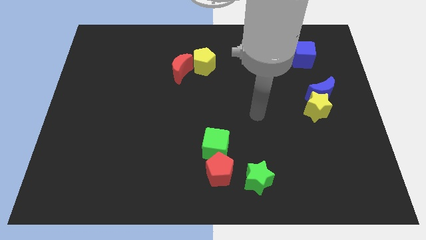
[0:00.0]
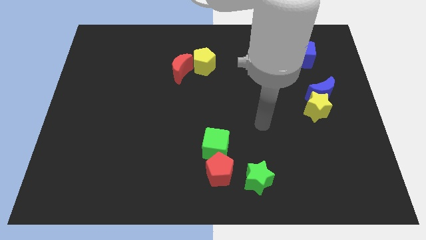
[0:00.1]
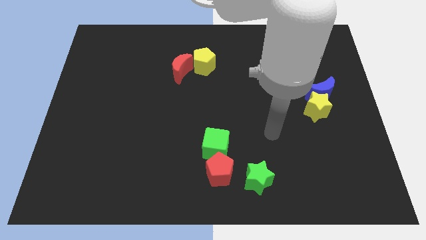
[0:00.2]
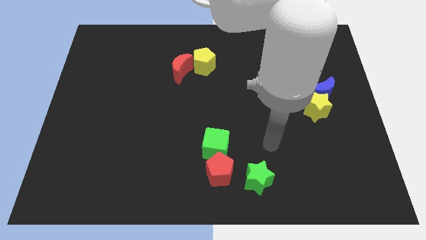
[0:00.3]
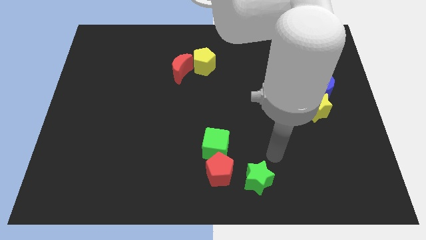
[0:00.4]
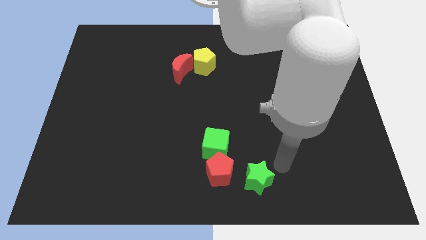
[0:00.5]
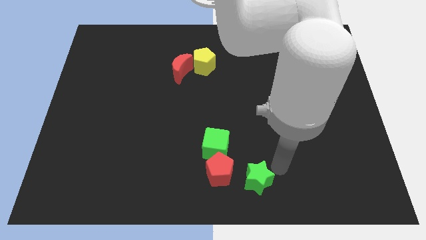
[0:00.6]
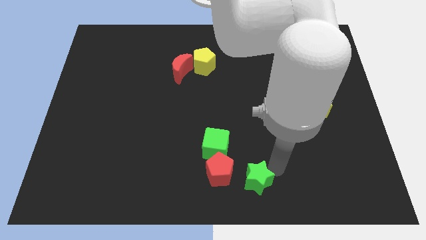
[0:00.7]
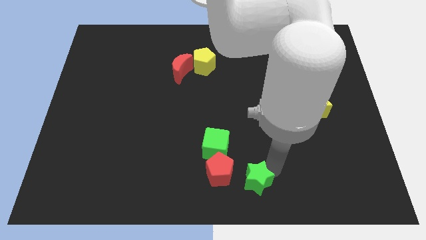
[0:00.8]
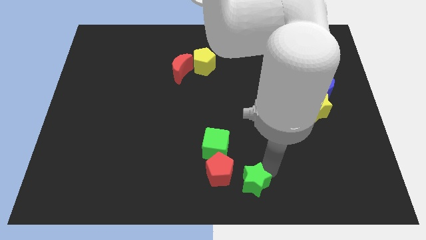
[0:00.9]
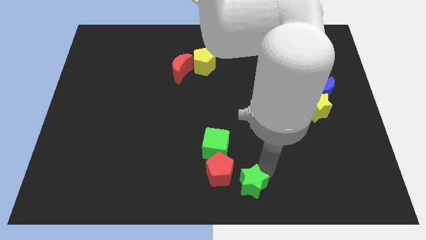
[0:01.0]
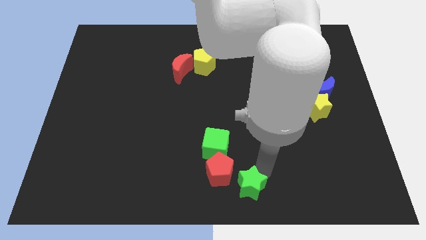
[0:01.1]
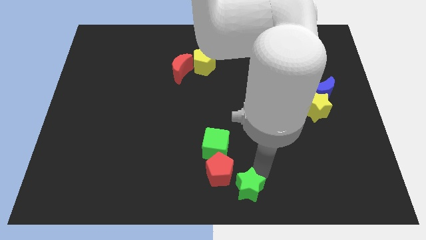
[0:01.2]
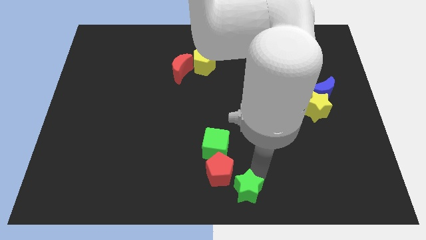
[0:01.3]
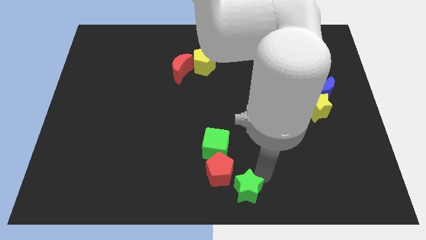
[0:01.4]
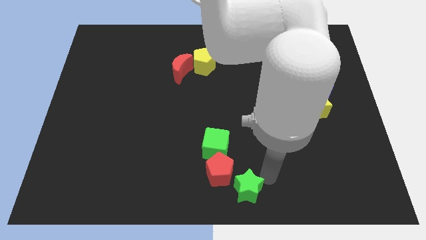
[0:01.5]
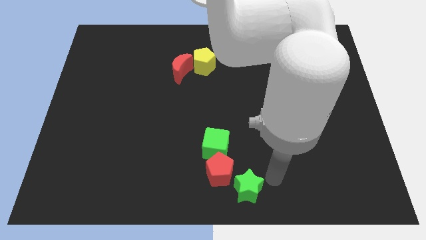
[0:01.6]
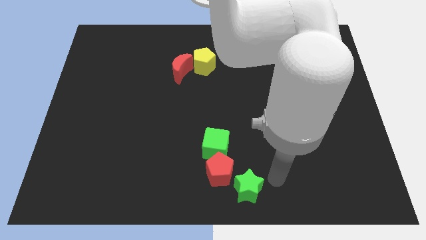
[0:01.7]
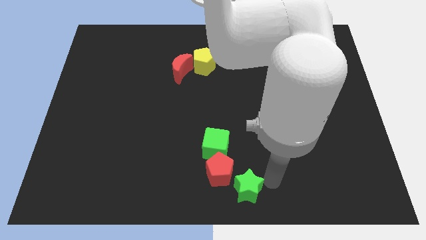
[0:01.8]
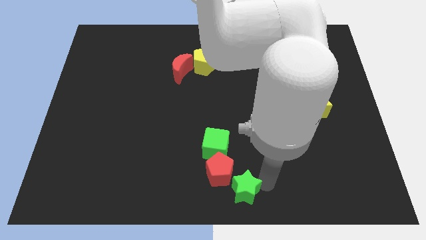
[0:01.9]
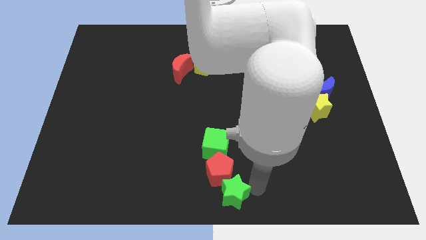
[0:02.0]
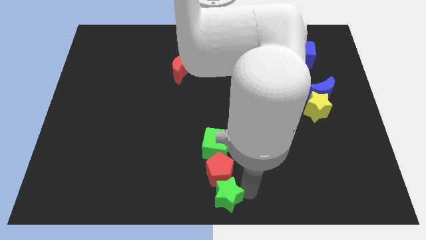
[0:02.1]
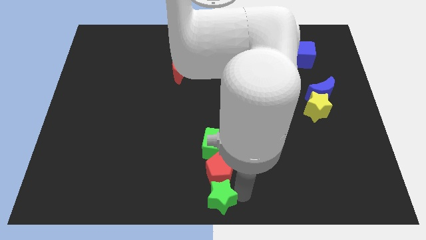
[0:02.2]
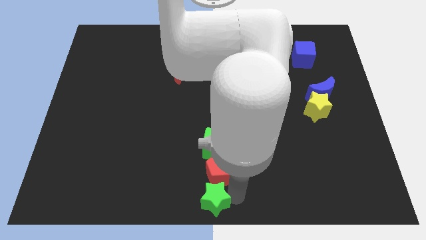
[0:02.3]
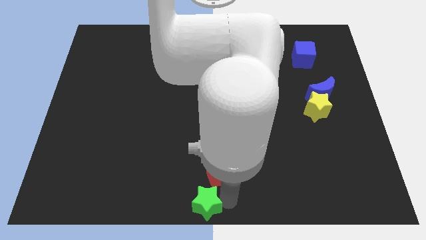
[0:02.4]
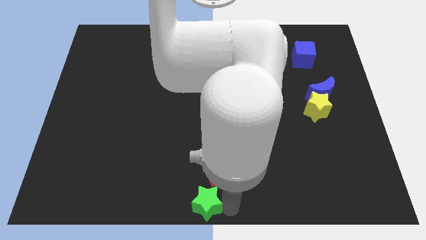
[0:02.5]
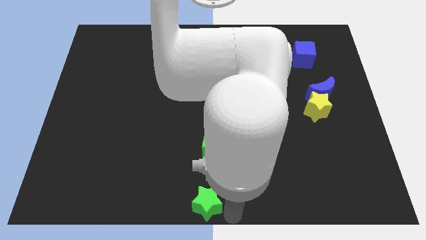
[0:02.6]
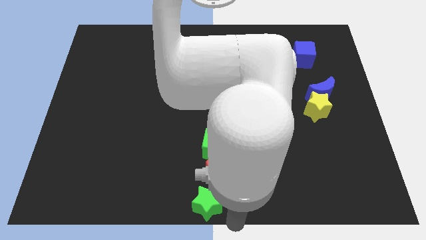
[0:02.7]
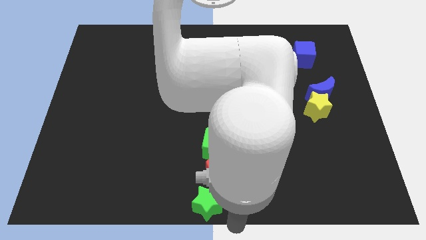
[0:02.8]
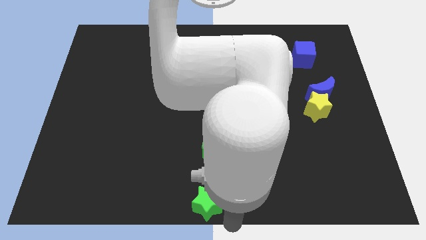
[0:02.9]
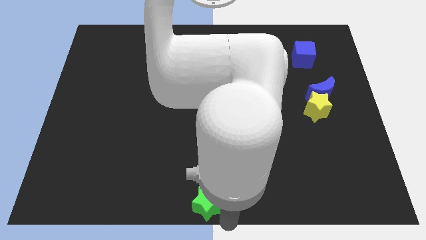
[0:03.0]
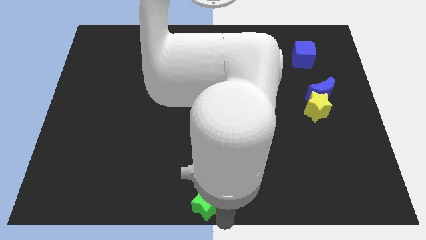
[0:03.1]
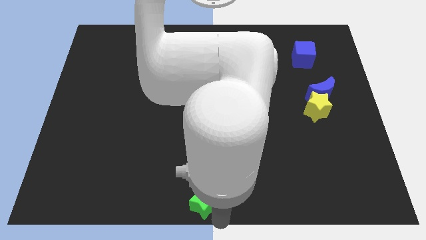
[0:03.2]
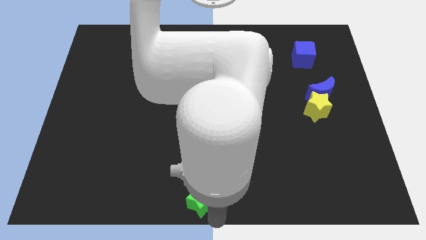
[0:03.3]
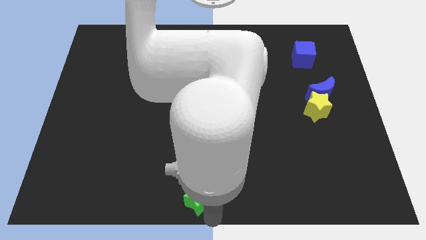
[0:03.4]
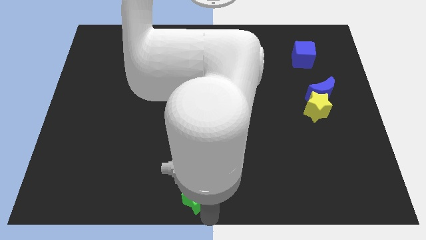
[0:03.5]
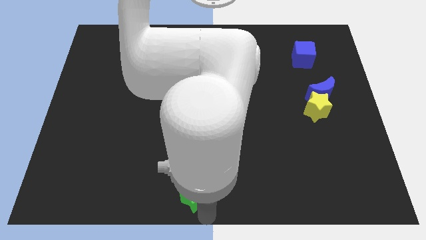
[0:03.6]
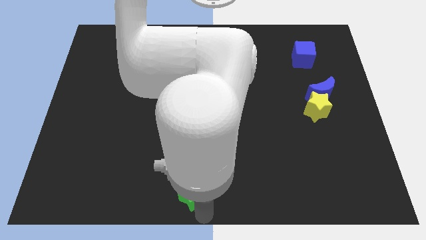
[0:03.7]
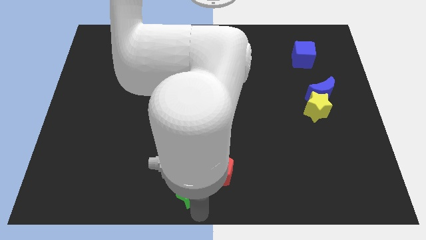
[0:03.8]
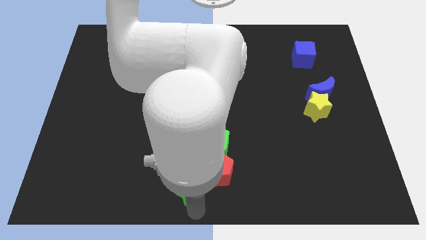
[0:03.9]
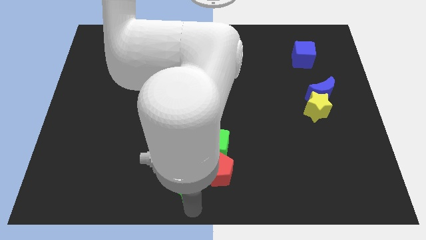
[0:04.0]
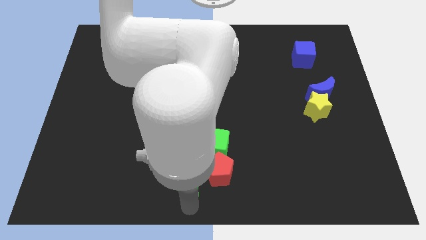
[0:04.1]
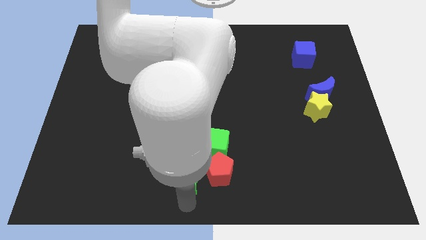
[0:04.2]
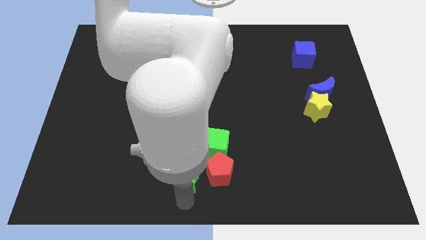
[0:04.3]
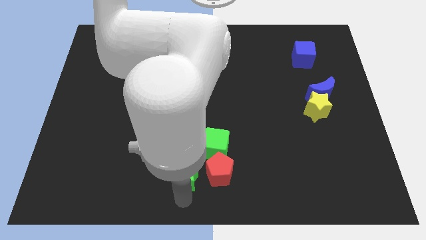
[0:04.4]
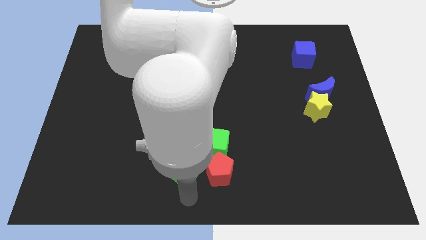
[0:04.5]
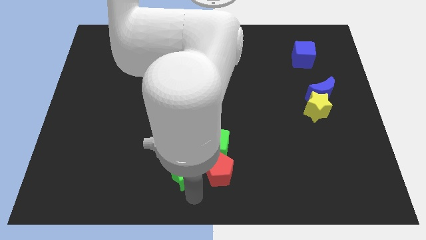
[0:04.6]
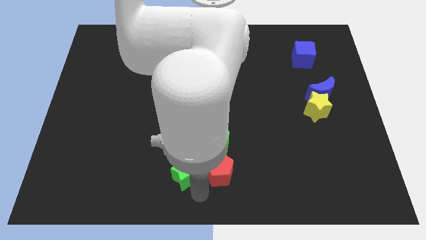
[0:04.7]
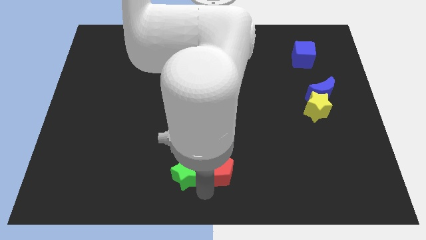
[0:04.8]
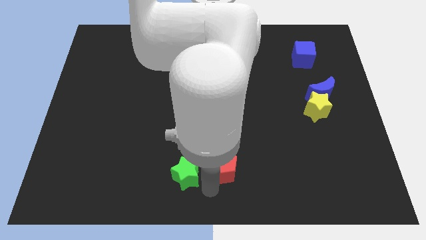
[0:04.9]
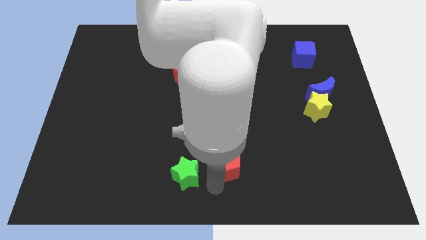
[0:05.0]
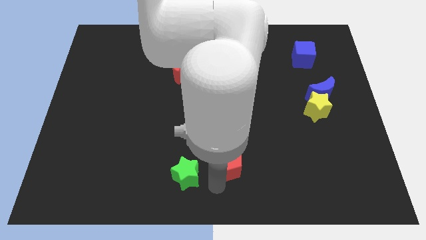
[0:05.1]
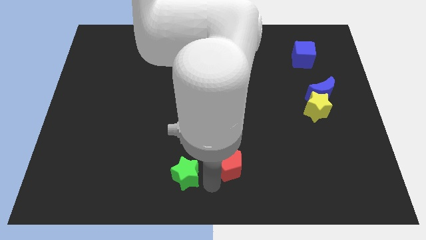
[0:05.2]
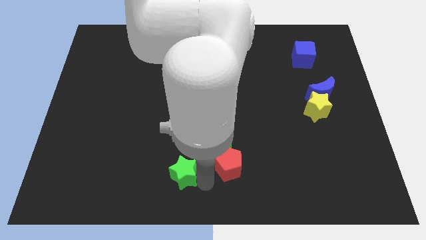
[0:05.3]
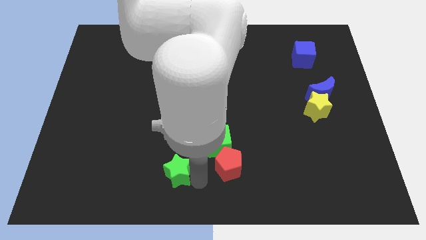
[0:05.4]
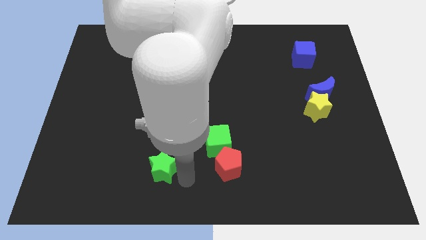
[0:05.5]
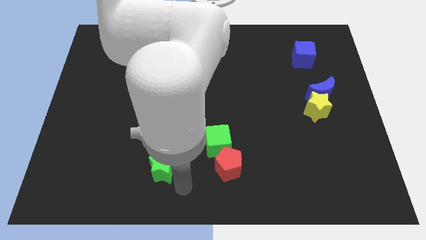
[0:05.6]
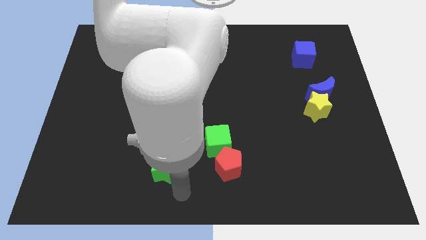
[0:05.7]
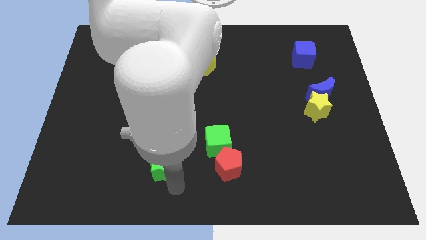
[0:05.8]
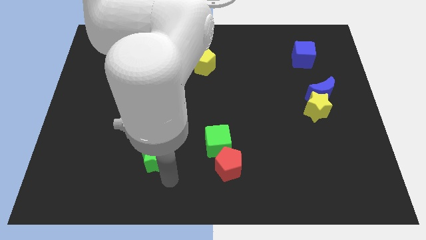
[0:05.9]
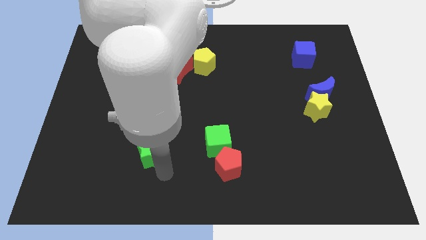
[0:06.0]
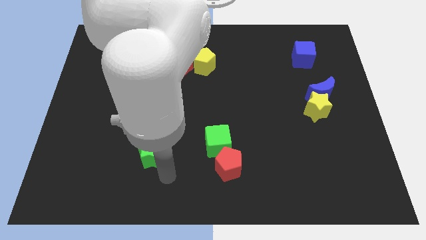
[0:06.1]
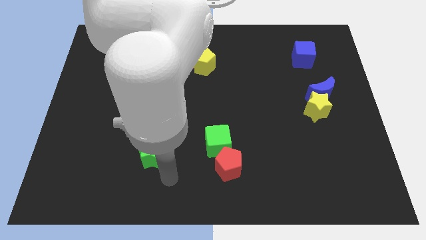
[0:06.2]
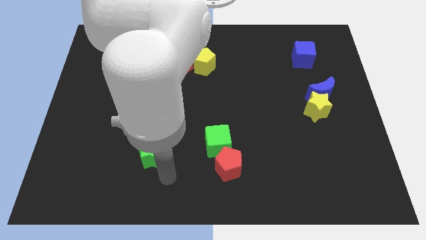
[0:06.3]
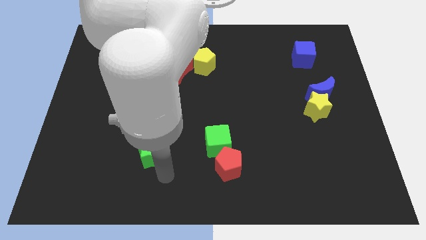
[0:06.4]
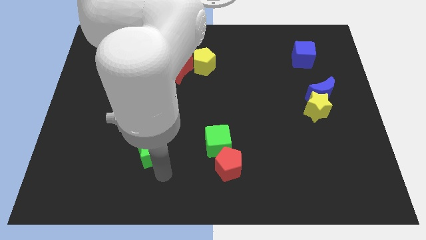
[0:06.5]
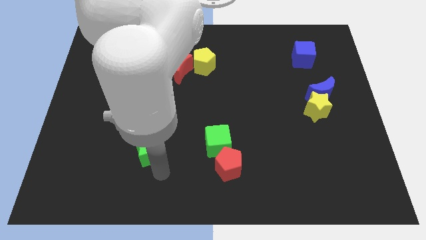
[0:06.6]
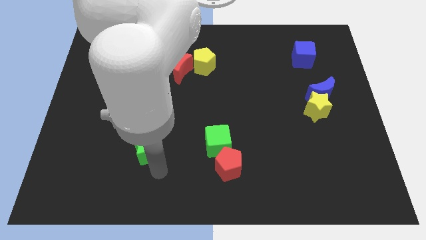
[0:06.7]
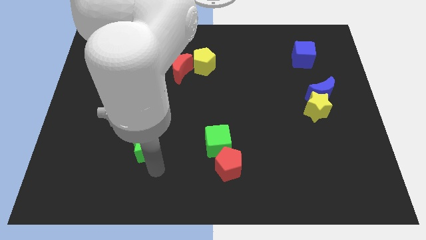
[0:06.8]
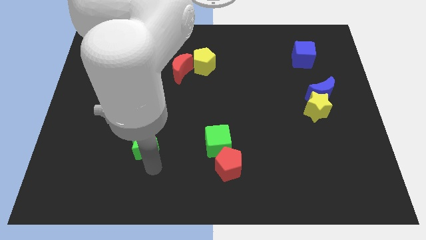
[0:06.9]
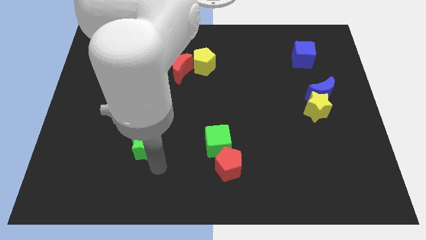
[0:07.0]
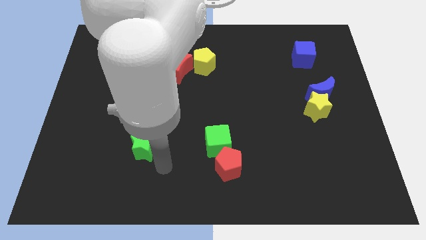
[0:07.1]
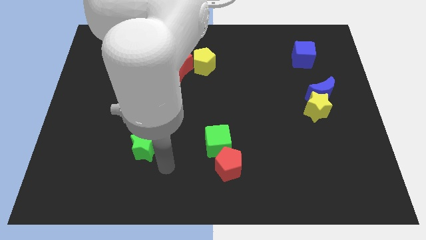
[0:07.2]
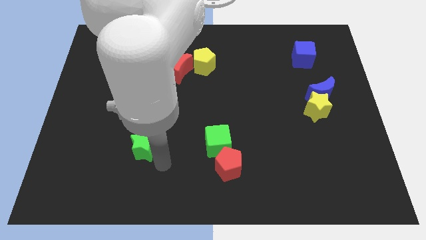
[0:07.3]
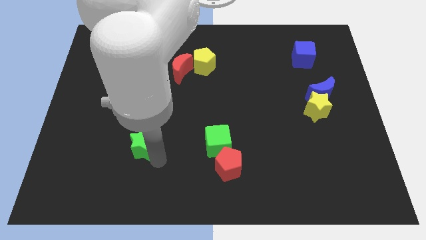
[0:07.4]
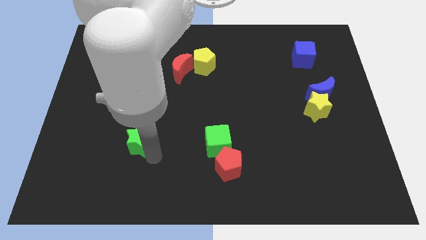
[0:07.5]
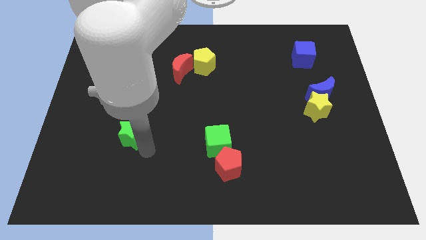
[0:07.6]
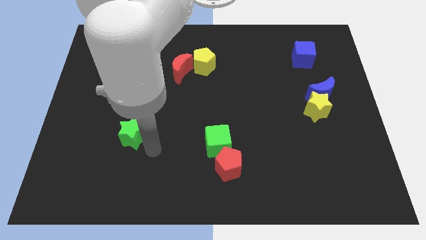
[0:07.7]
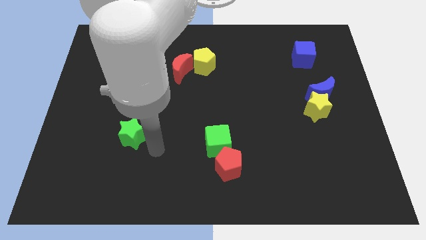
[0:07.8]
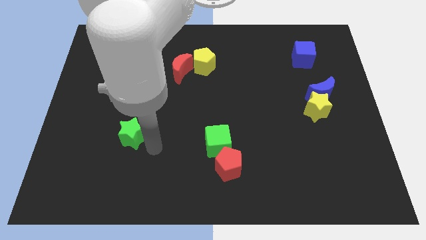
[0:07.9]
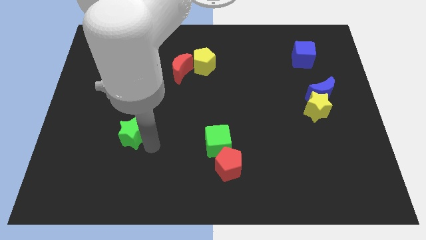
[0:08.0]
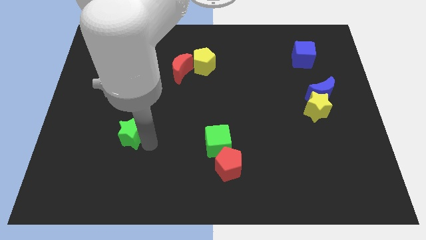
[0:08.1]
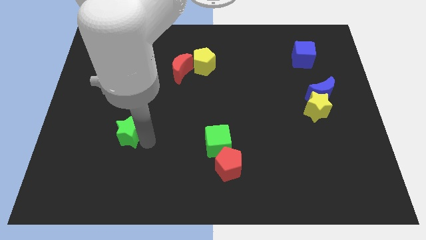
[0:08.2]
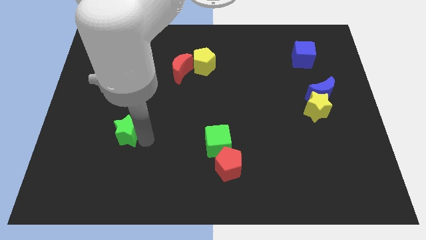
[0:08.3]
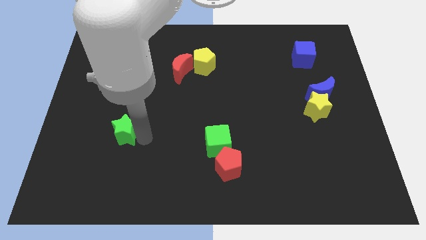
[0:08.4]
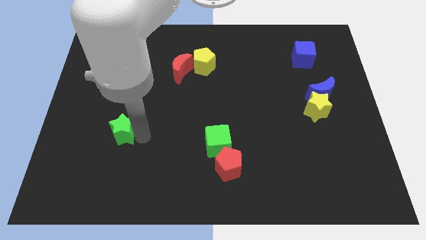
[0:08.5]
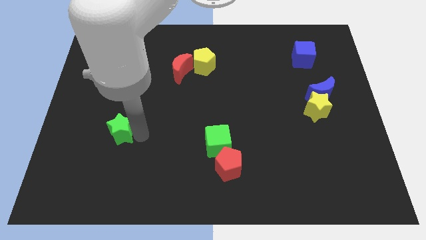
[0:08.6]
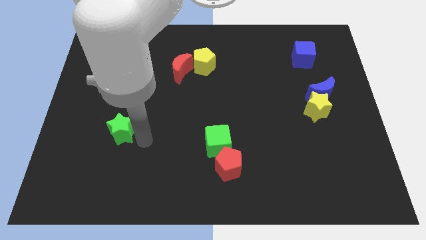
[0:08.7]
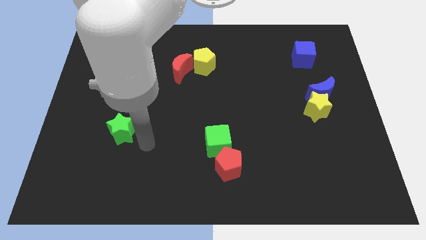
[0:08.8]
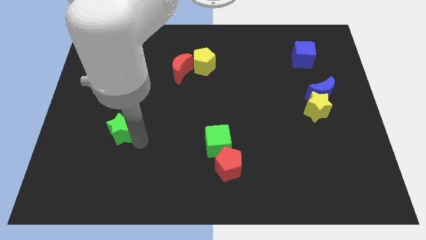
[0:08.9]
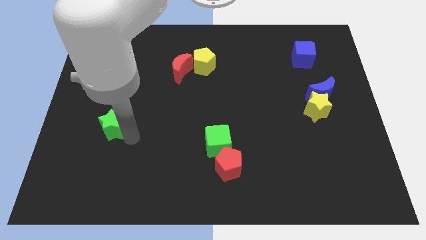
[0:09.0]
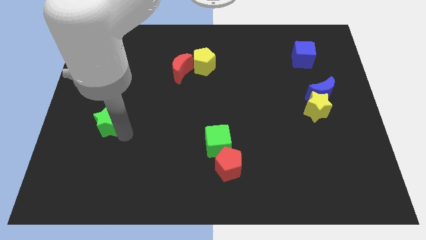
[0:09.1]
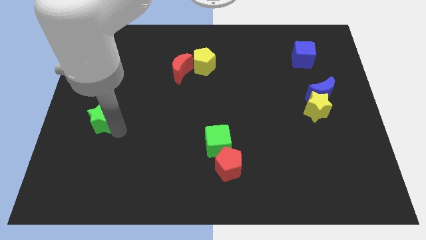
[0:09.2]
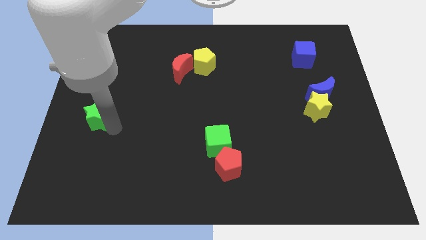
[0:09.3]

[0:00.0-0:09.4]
slide the green star to the center left
